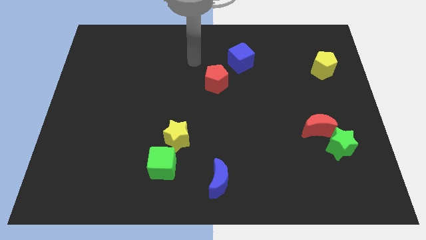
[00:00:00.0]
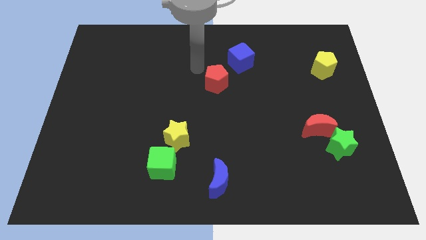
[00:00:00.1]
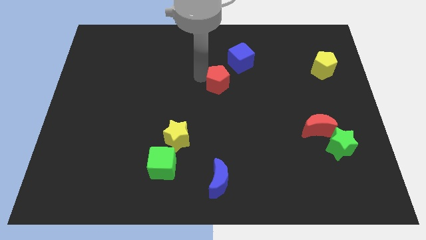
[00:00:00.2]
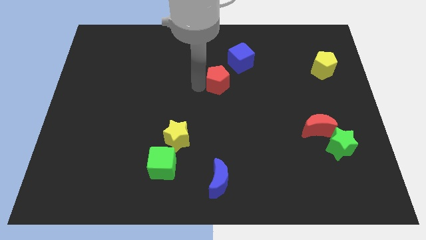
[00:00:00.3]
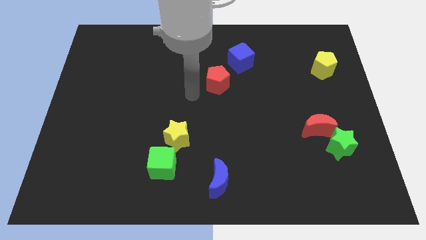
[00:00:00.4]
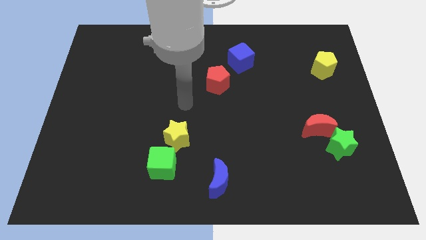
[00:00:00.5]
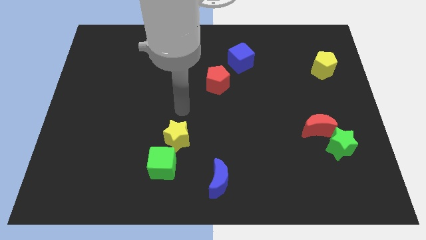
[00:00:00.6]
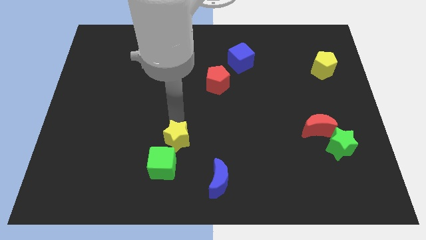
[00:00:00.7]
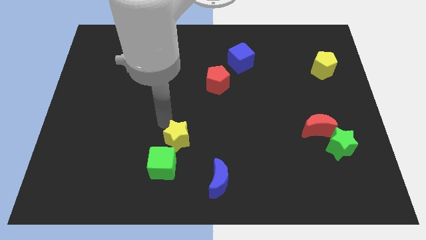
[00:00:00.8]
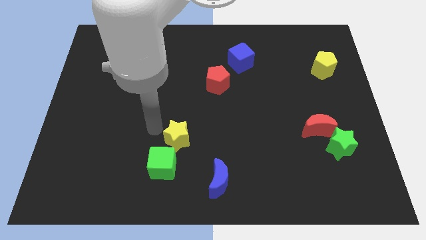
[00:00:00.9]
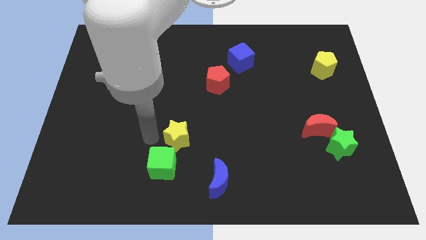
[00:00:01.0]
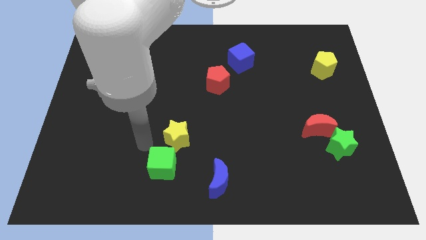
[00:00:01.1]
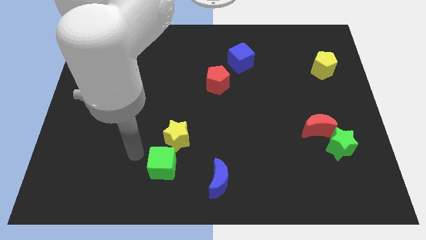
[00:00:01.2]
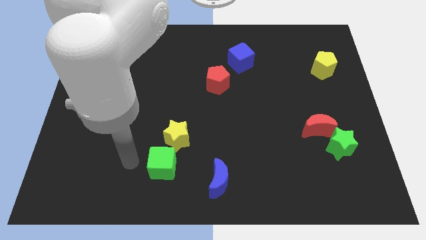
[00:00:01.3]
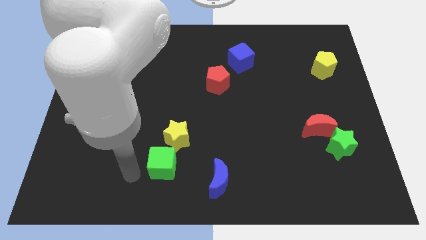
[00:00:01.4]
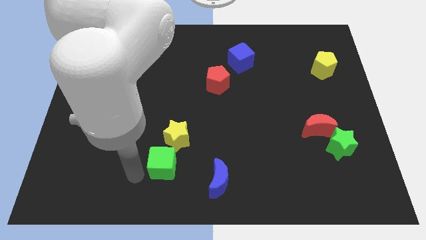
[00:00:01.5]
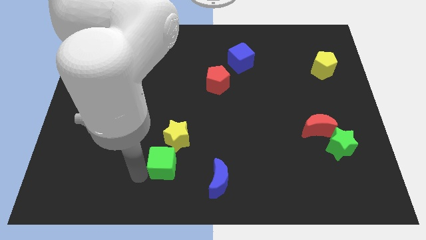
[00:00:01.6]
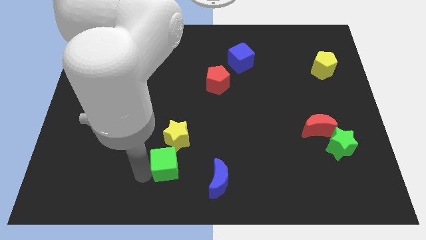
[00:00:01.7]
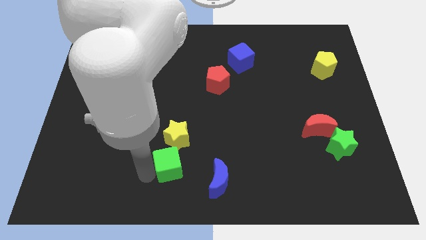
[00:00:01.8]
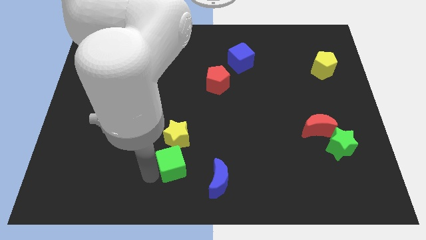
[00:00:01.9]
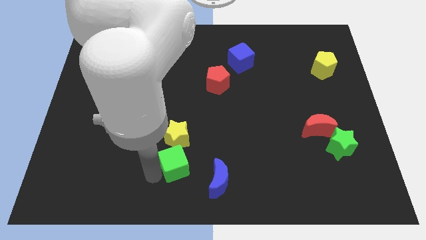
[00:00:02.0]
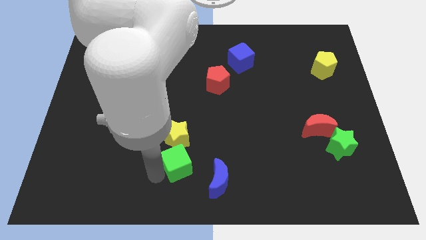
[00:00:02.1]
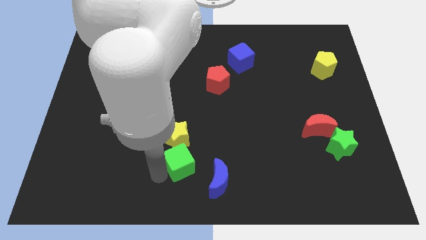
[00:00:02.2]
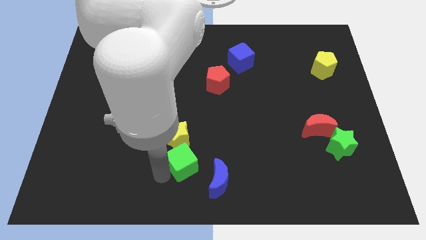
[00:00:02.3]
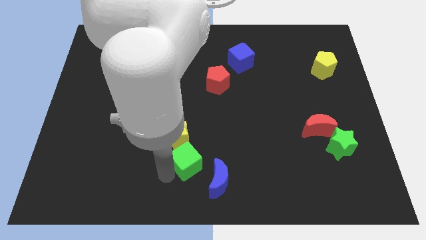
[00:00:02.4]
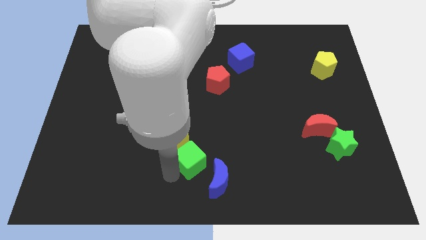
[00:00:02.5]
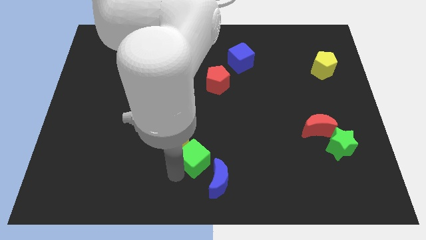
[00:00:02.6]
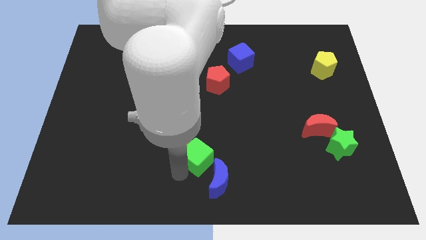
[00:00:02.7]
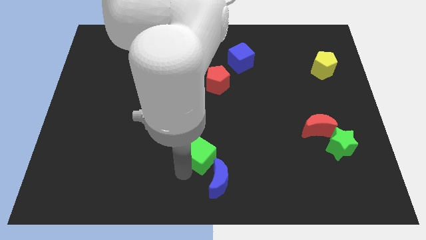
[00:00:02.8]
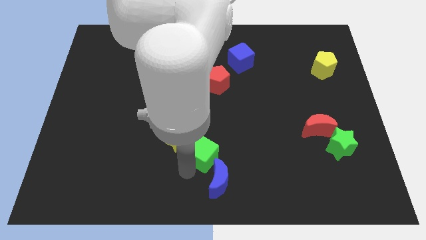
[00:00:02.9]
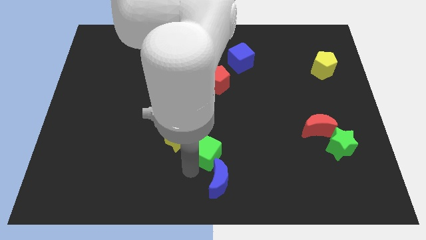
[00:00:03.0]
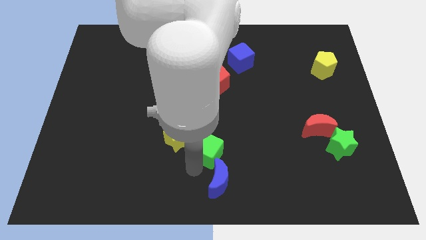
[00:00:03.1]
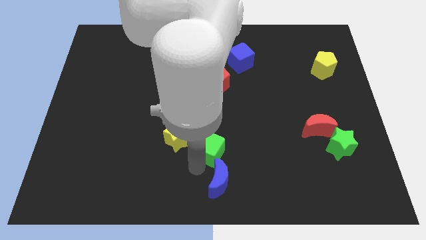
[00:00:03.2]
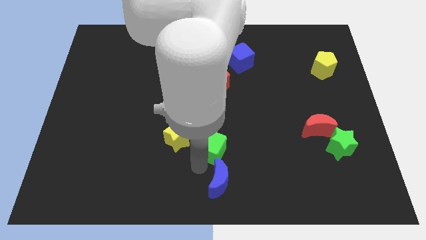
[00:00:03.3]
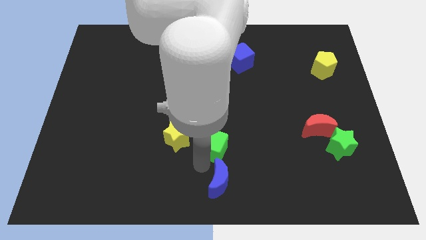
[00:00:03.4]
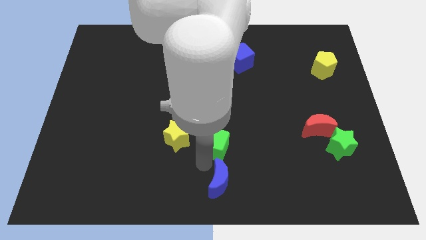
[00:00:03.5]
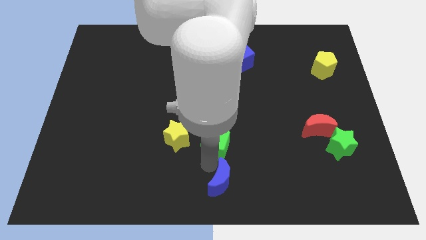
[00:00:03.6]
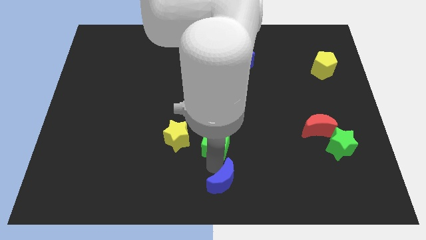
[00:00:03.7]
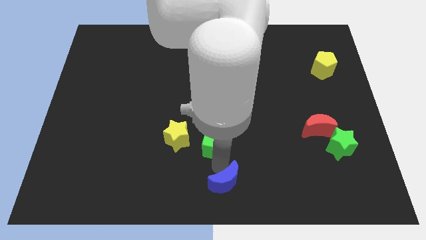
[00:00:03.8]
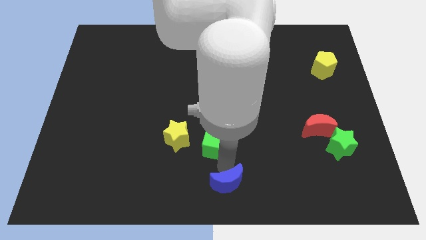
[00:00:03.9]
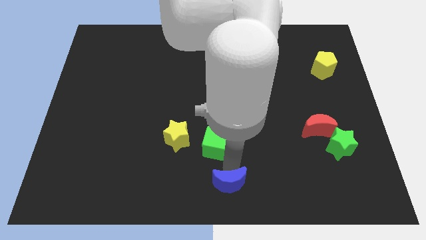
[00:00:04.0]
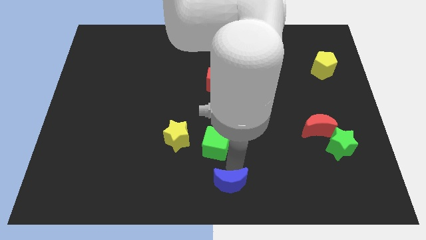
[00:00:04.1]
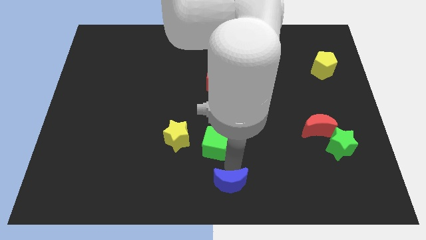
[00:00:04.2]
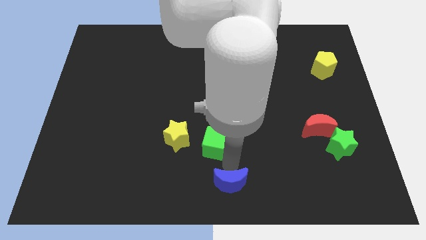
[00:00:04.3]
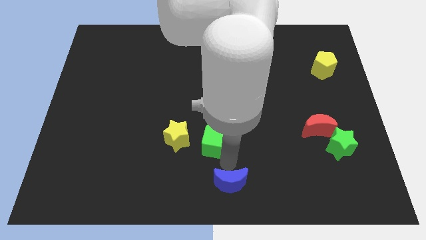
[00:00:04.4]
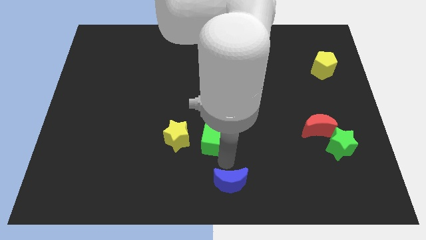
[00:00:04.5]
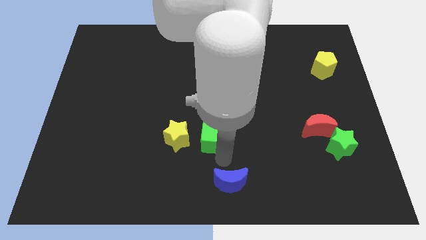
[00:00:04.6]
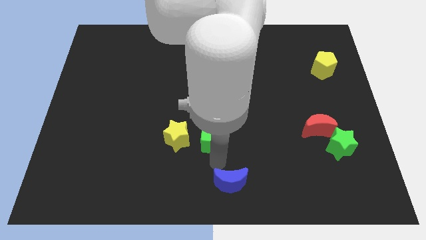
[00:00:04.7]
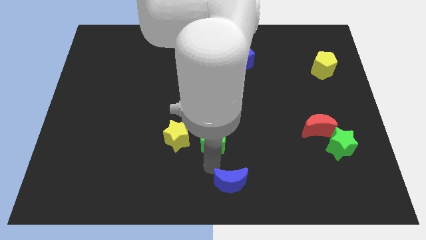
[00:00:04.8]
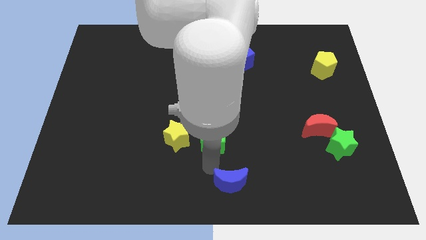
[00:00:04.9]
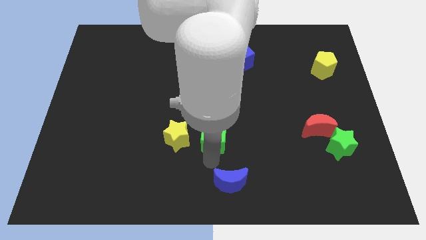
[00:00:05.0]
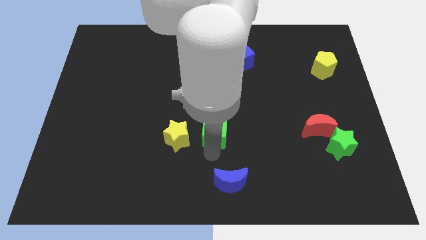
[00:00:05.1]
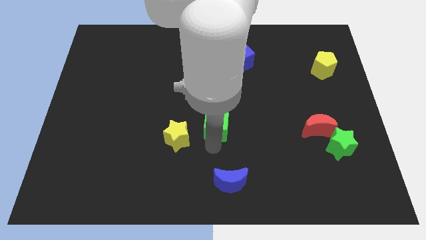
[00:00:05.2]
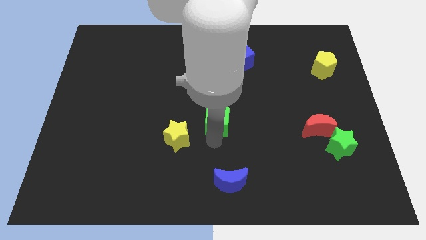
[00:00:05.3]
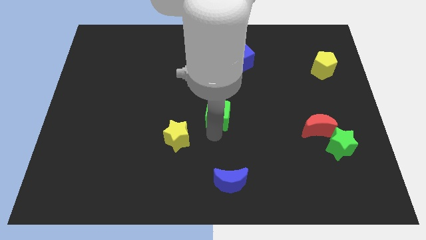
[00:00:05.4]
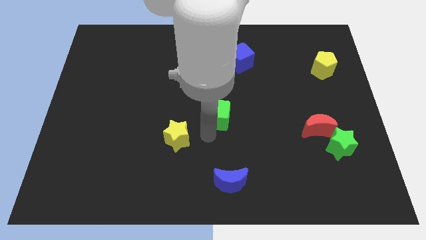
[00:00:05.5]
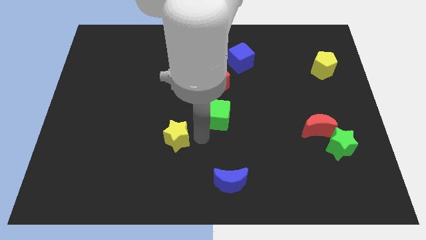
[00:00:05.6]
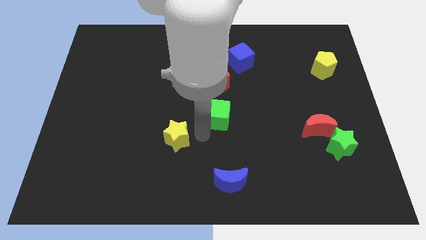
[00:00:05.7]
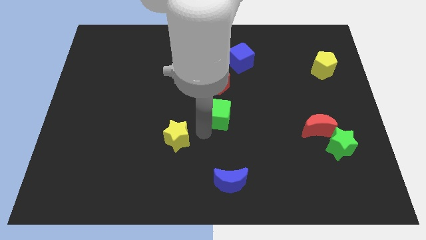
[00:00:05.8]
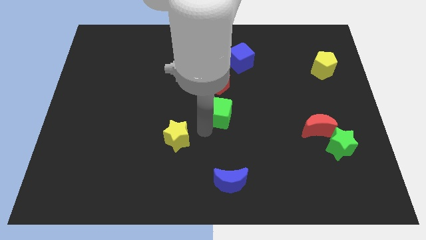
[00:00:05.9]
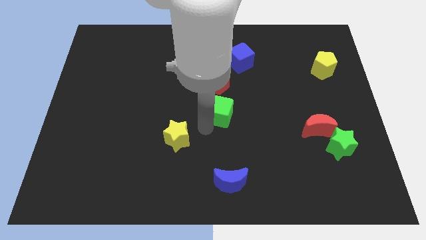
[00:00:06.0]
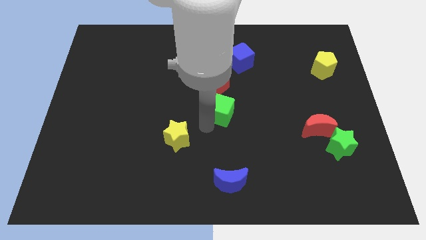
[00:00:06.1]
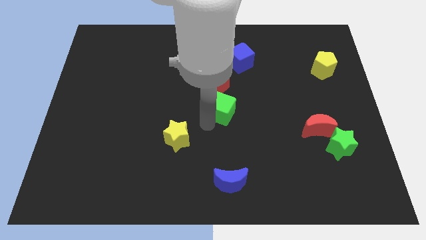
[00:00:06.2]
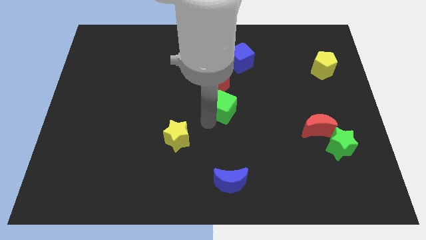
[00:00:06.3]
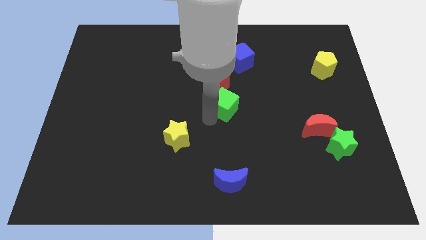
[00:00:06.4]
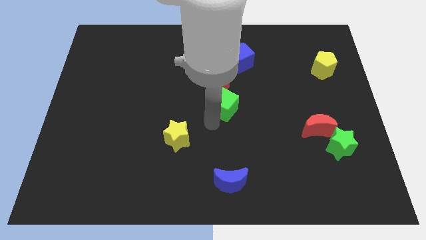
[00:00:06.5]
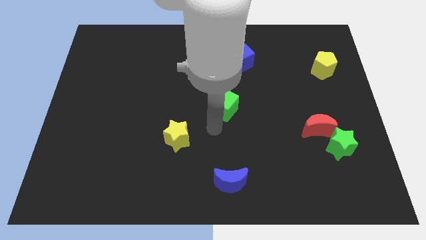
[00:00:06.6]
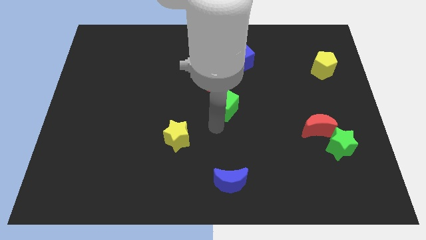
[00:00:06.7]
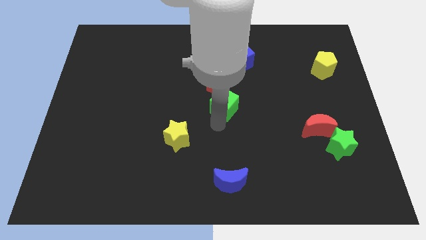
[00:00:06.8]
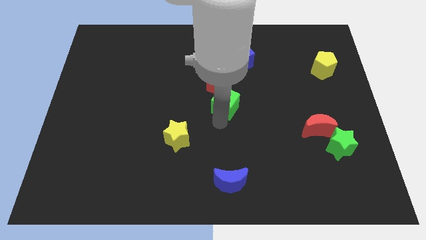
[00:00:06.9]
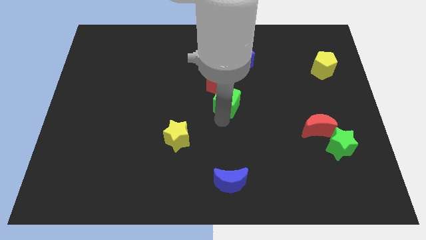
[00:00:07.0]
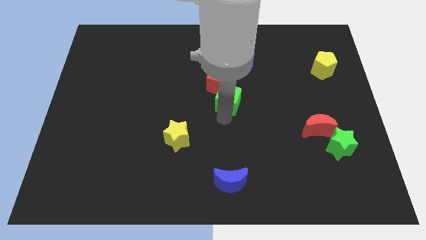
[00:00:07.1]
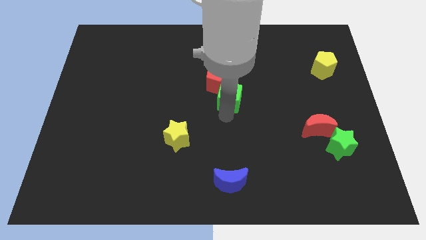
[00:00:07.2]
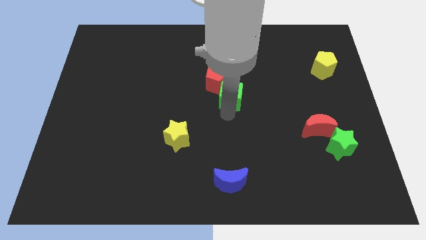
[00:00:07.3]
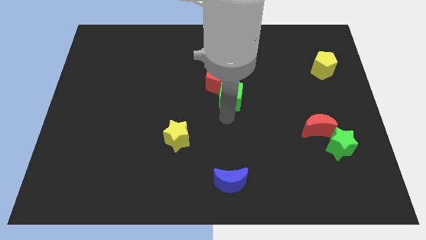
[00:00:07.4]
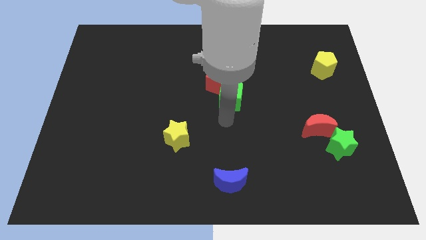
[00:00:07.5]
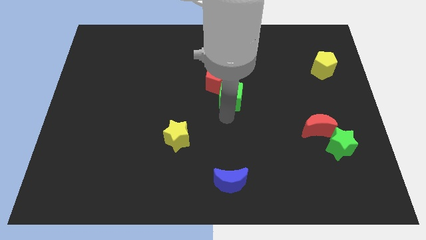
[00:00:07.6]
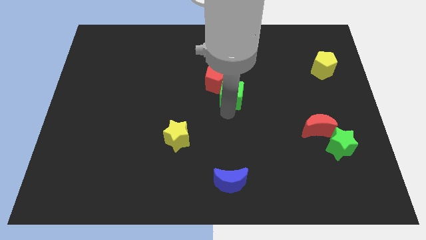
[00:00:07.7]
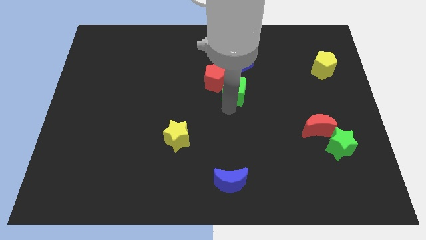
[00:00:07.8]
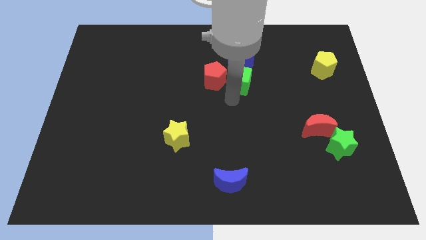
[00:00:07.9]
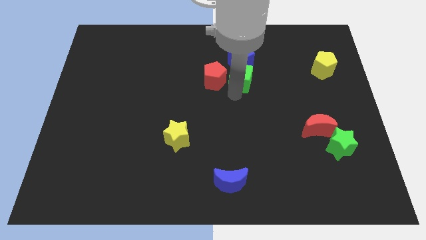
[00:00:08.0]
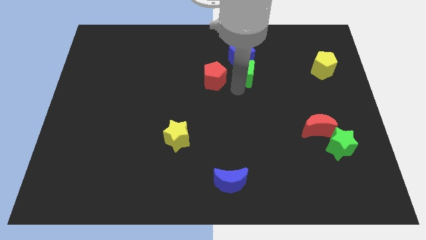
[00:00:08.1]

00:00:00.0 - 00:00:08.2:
move the green cube close to the blue cube
